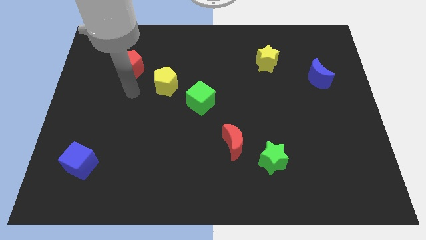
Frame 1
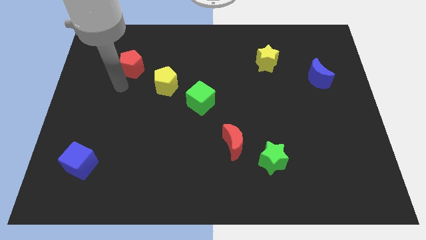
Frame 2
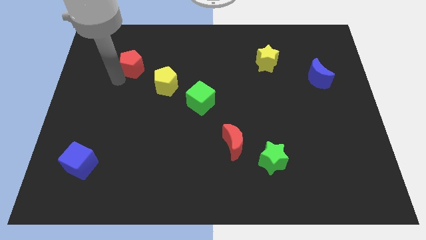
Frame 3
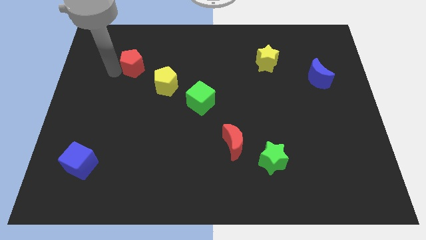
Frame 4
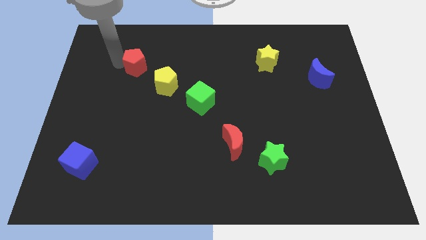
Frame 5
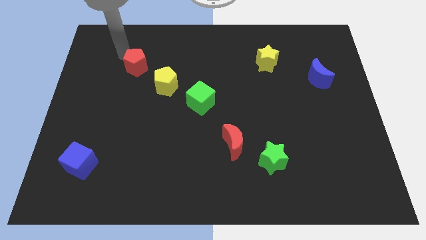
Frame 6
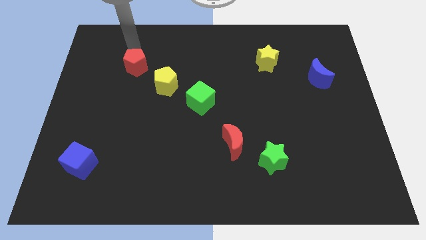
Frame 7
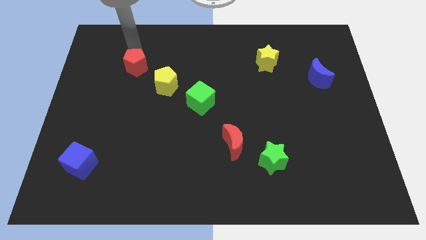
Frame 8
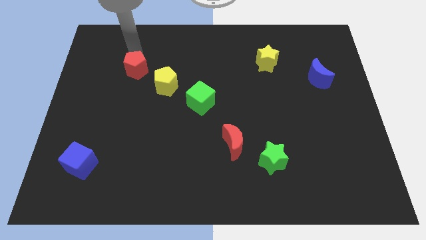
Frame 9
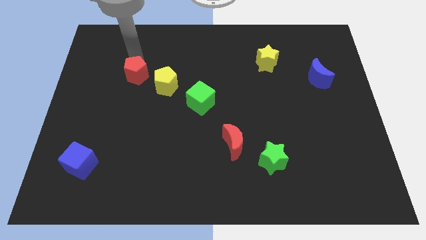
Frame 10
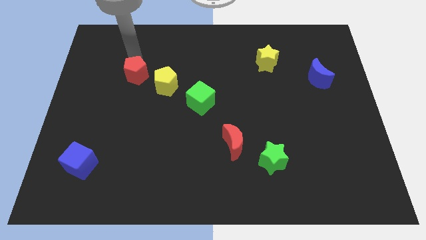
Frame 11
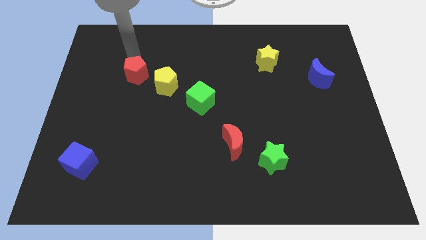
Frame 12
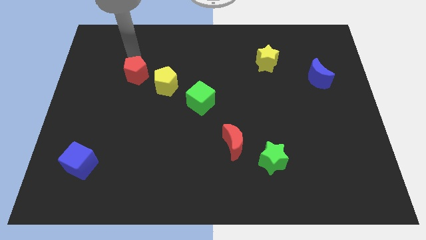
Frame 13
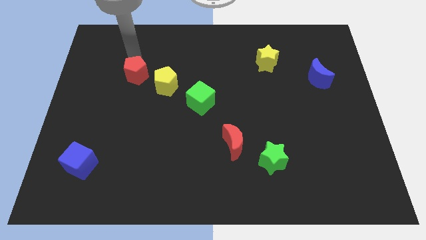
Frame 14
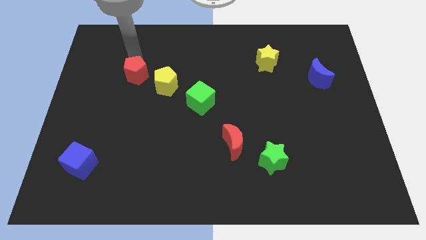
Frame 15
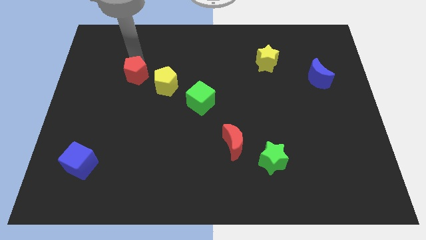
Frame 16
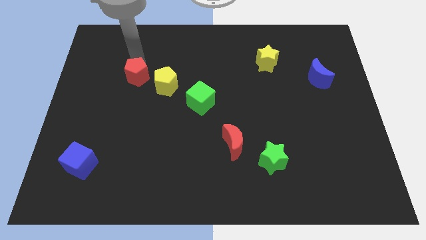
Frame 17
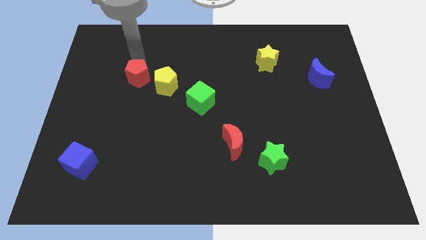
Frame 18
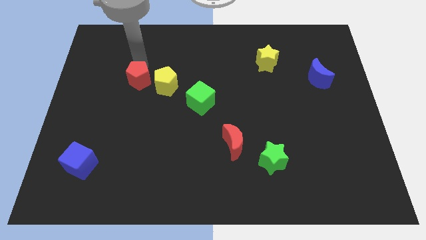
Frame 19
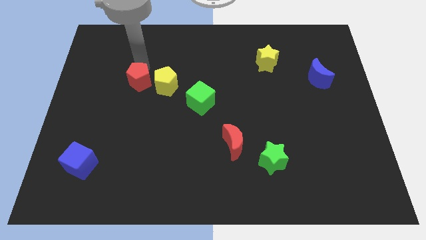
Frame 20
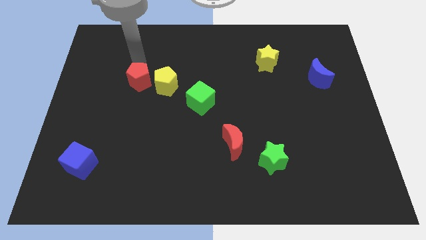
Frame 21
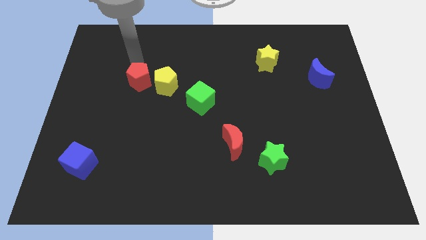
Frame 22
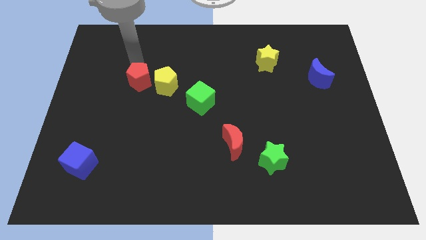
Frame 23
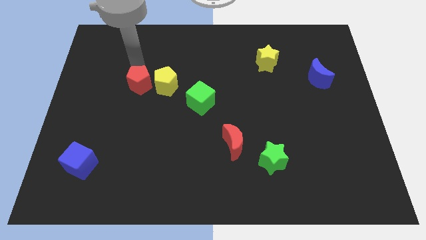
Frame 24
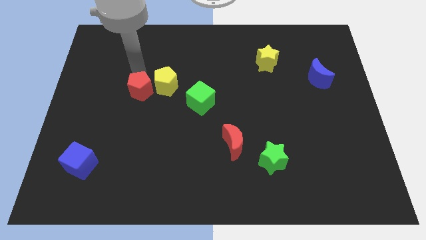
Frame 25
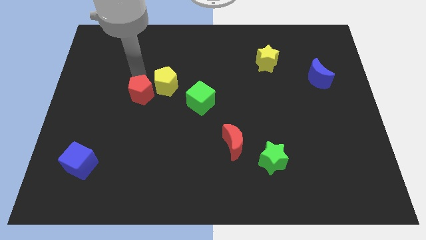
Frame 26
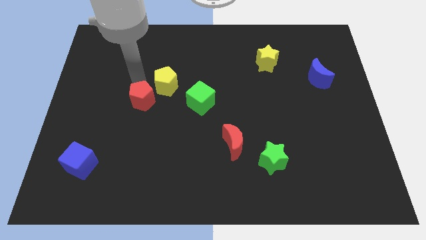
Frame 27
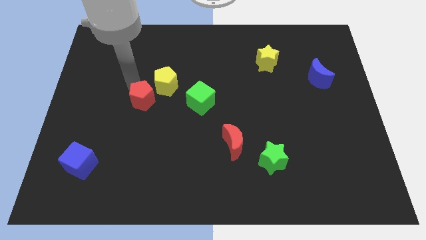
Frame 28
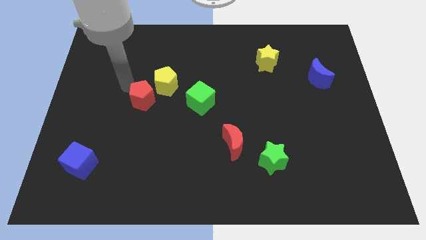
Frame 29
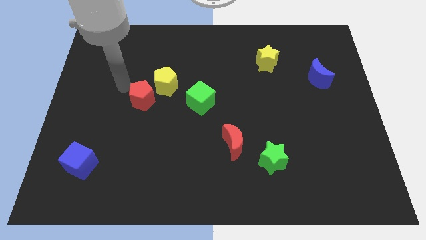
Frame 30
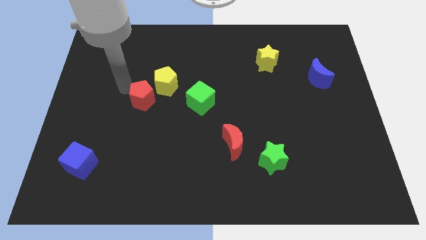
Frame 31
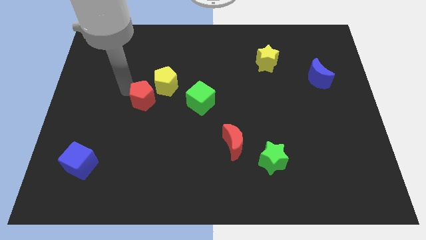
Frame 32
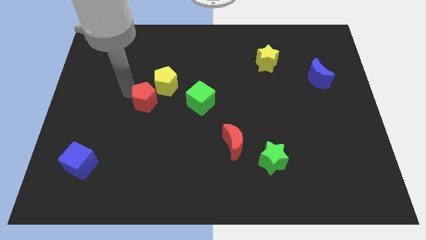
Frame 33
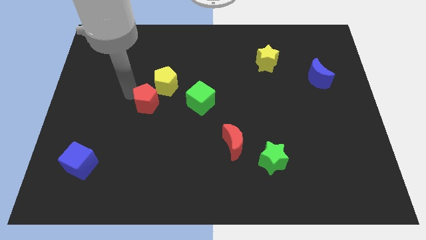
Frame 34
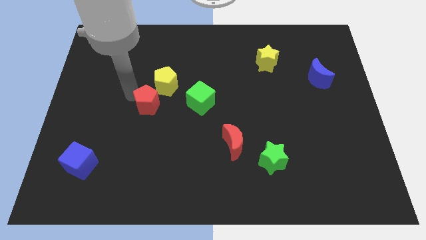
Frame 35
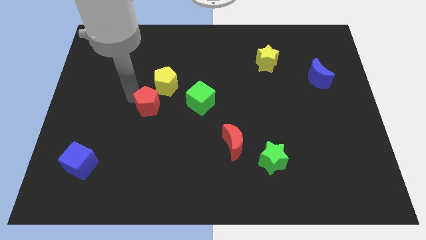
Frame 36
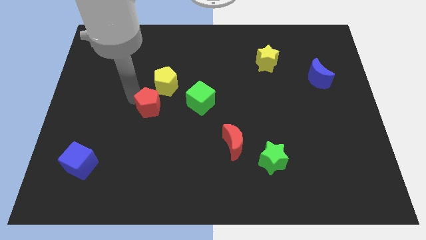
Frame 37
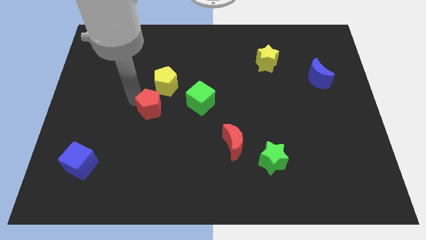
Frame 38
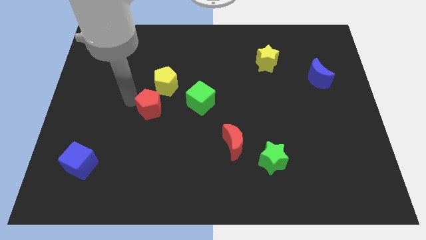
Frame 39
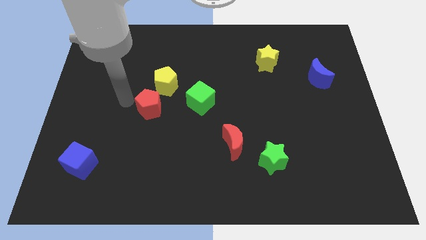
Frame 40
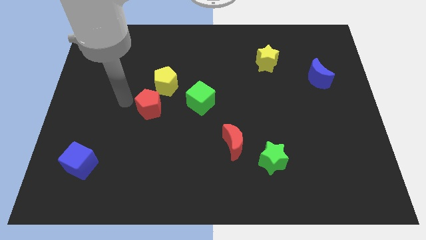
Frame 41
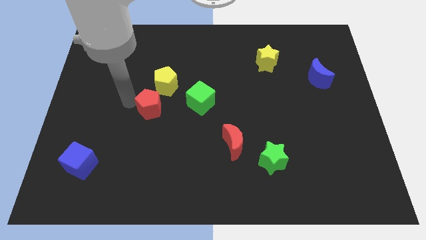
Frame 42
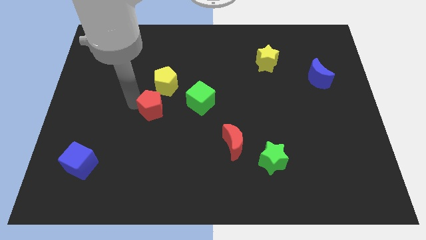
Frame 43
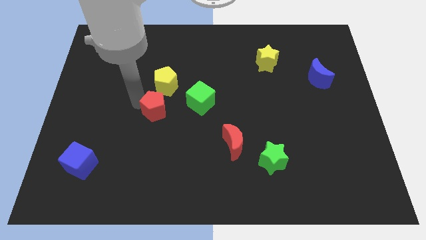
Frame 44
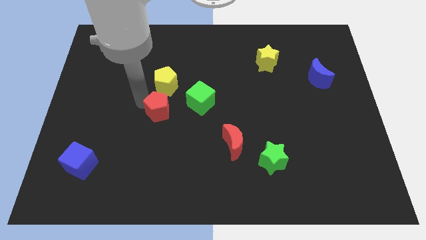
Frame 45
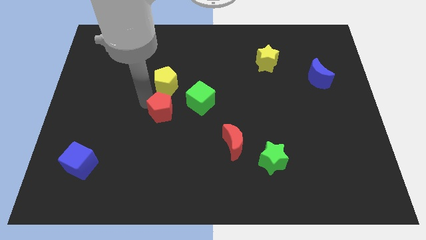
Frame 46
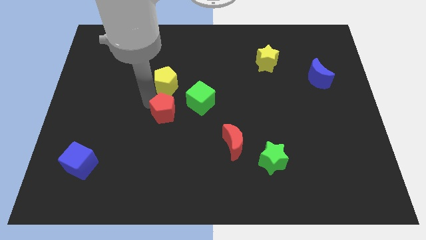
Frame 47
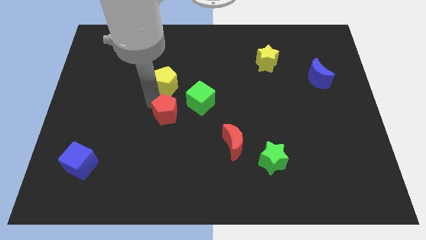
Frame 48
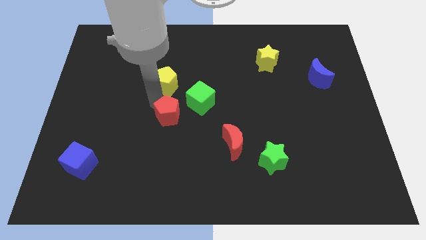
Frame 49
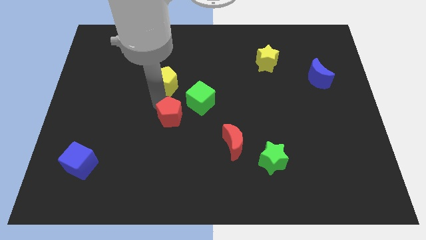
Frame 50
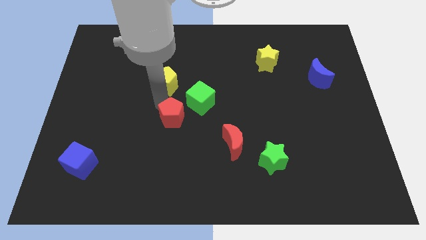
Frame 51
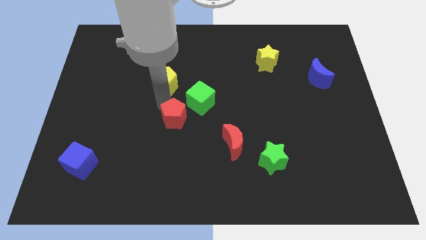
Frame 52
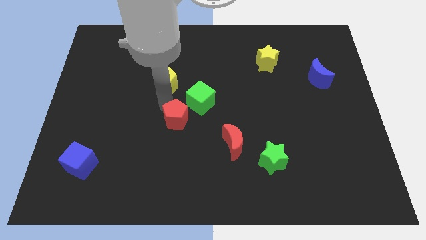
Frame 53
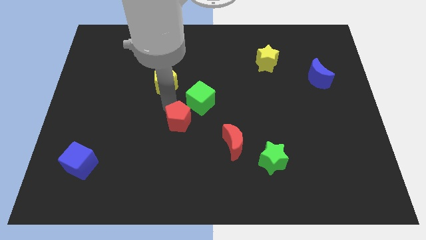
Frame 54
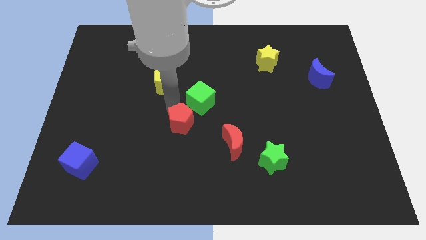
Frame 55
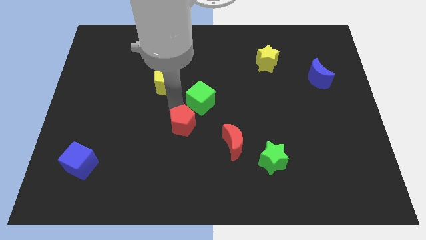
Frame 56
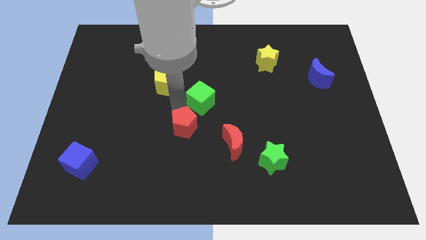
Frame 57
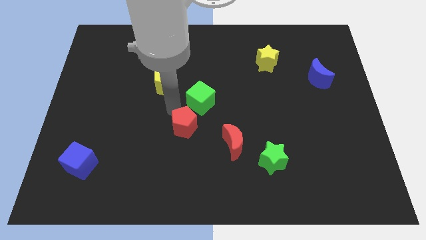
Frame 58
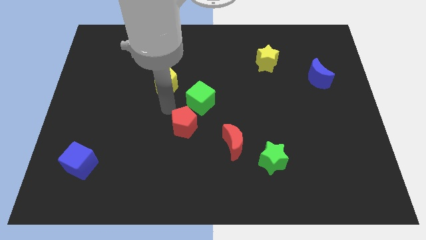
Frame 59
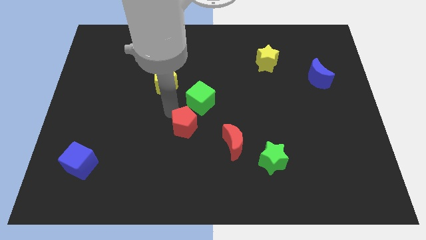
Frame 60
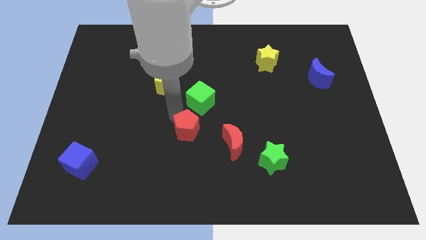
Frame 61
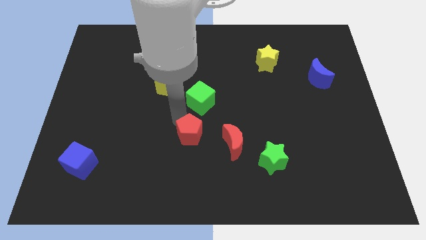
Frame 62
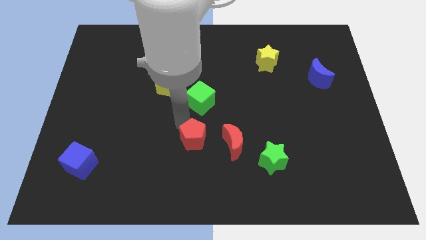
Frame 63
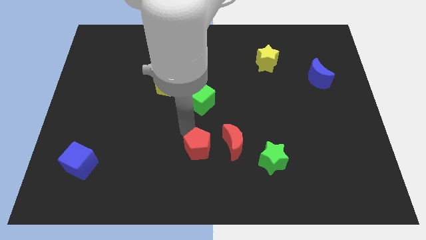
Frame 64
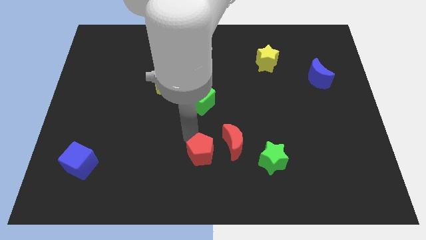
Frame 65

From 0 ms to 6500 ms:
slide the red pentagon left of the green star
